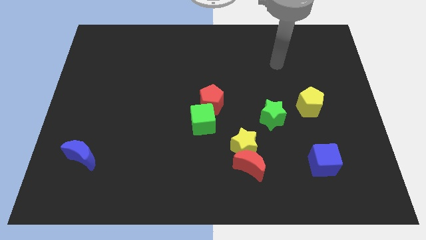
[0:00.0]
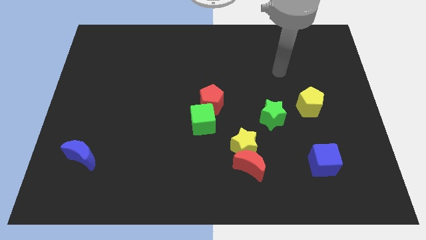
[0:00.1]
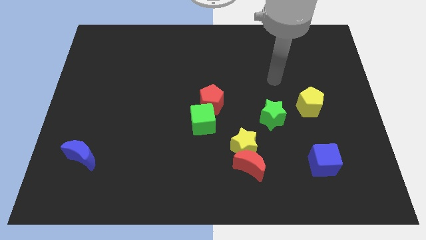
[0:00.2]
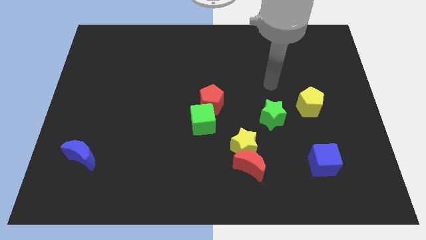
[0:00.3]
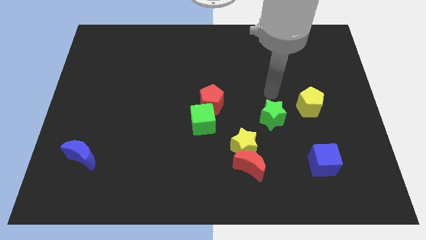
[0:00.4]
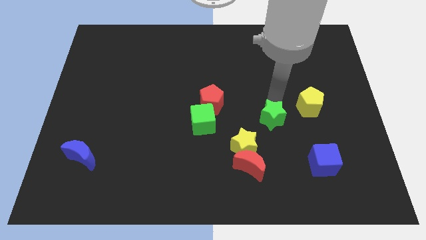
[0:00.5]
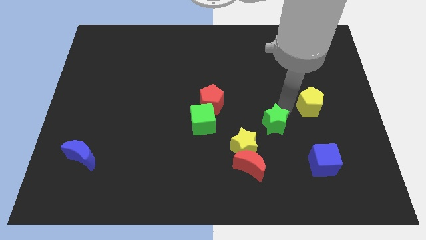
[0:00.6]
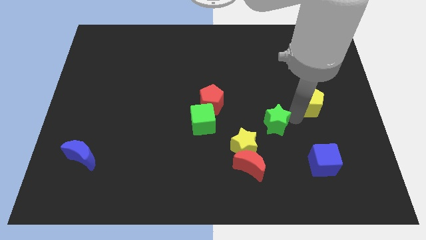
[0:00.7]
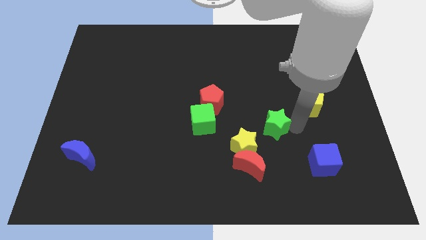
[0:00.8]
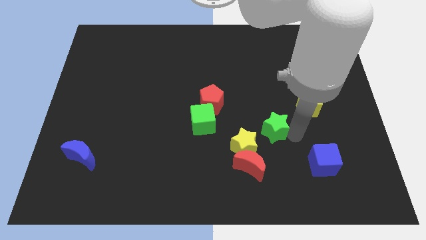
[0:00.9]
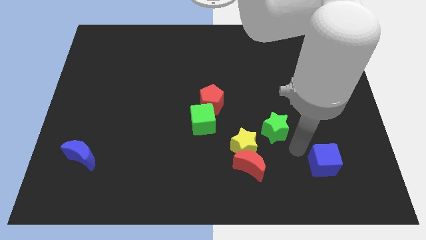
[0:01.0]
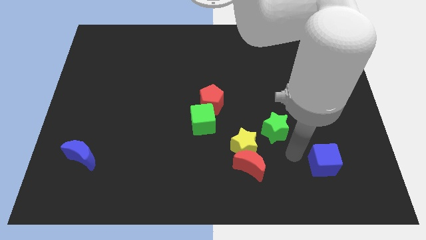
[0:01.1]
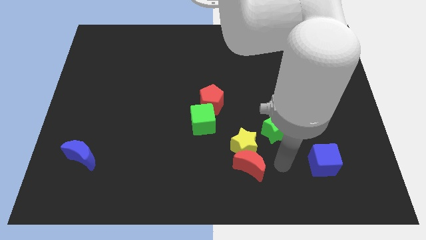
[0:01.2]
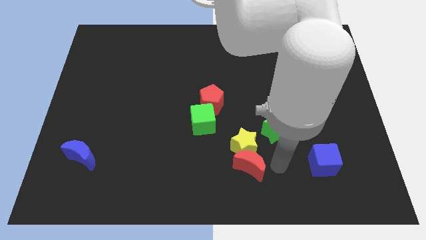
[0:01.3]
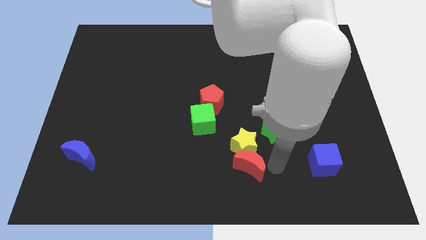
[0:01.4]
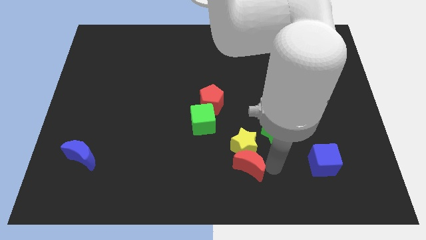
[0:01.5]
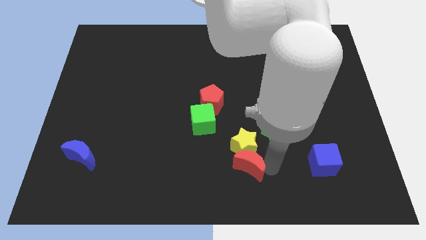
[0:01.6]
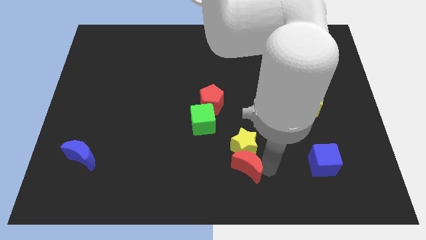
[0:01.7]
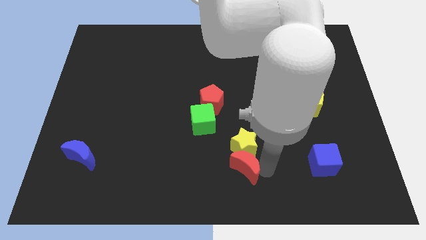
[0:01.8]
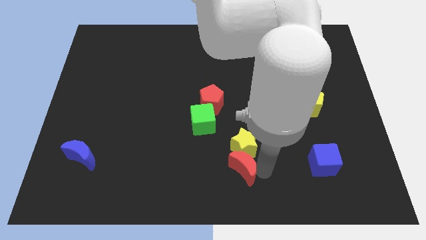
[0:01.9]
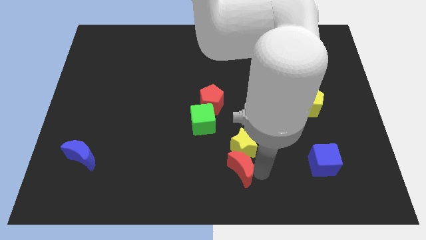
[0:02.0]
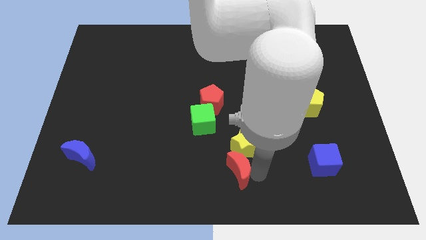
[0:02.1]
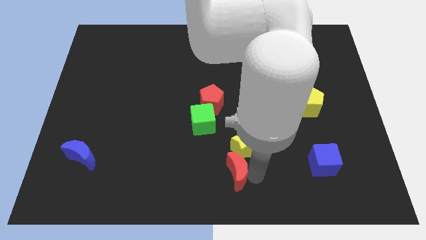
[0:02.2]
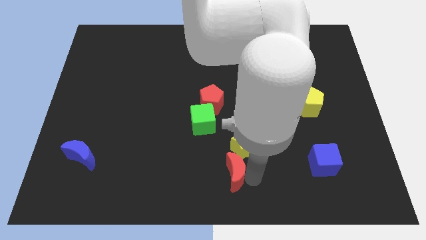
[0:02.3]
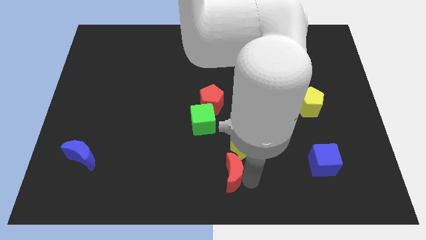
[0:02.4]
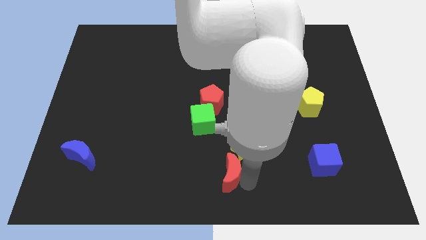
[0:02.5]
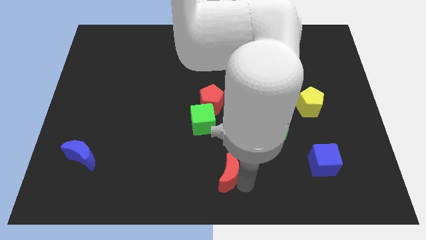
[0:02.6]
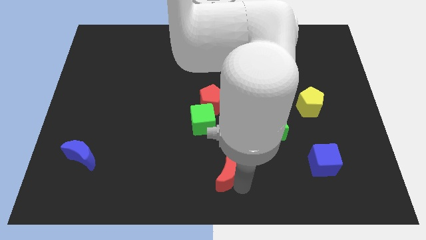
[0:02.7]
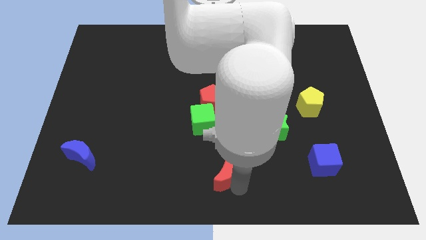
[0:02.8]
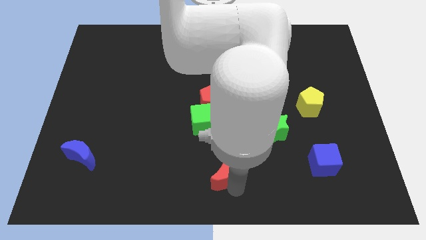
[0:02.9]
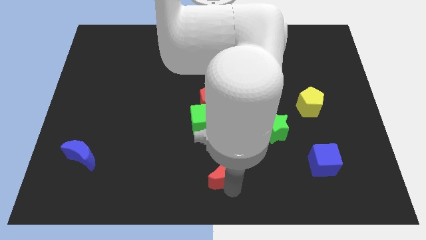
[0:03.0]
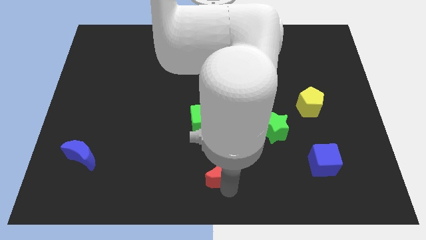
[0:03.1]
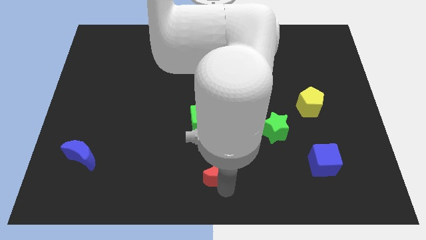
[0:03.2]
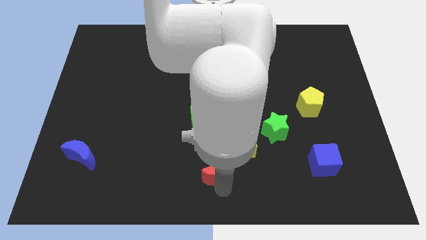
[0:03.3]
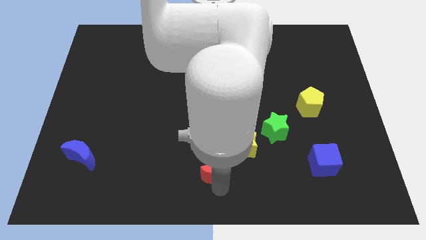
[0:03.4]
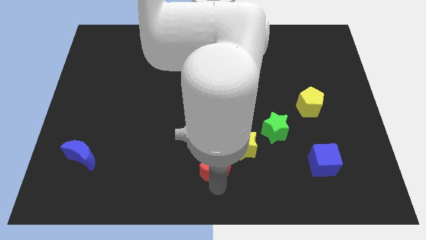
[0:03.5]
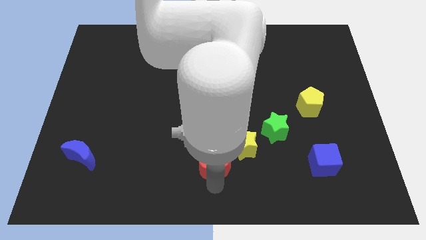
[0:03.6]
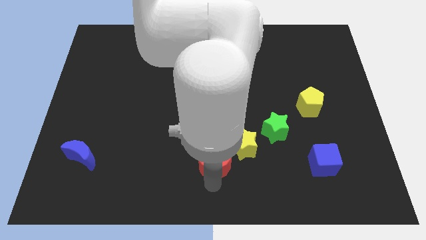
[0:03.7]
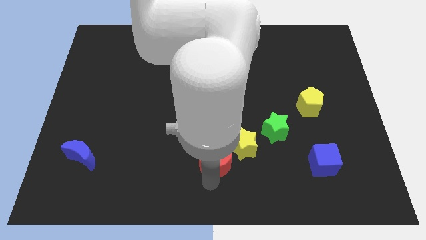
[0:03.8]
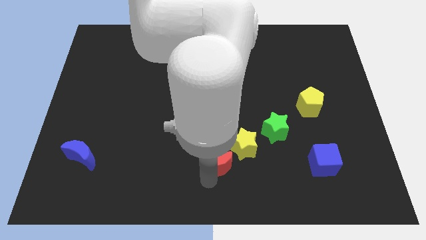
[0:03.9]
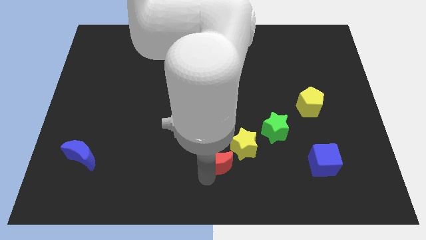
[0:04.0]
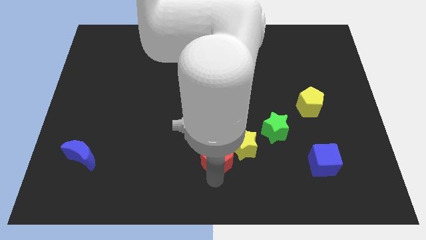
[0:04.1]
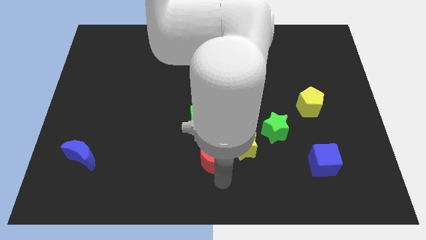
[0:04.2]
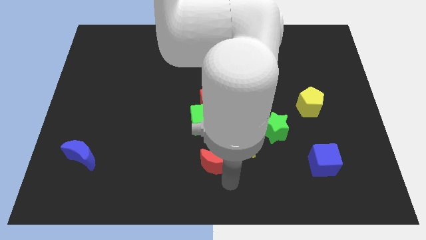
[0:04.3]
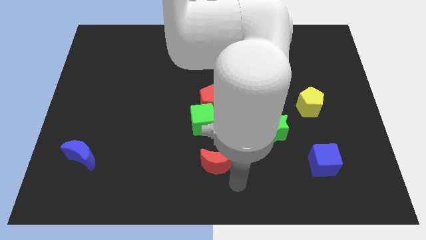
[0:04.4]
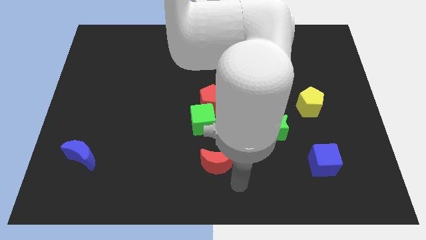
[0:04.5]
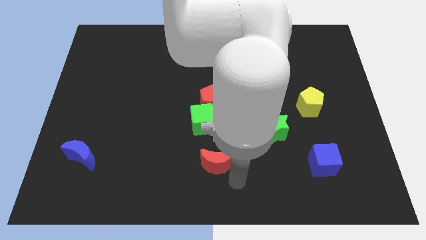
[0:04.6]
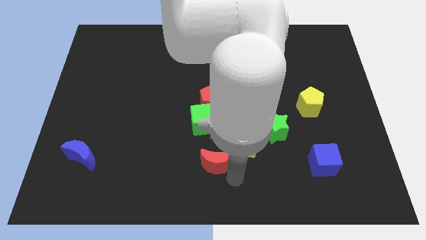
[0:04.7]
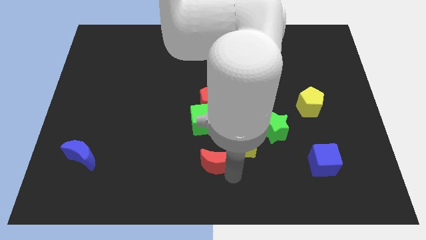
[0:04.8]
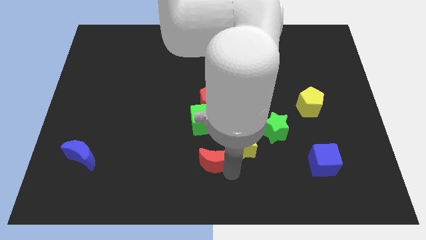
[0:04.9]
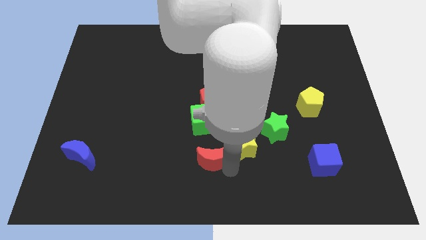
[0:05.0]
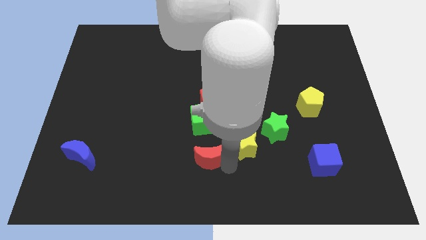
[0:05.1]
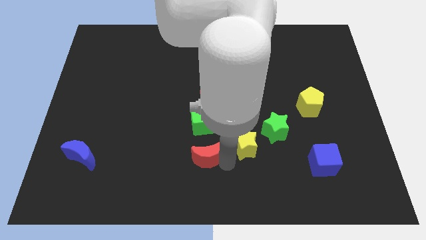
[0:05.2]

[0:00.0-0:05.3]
slightly slide the red moon diagonally up and left

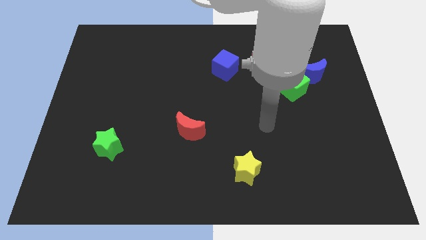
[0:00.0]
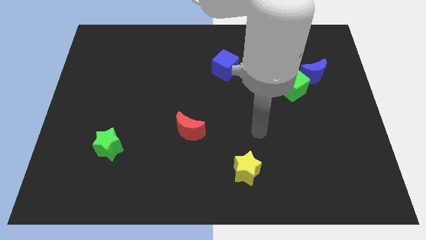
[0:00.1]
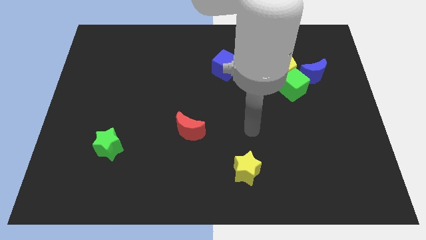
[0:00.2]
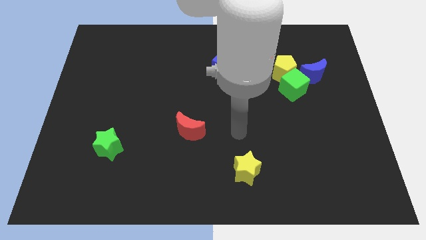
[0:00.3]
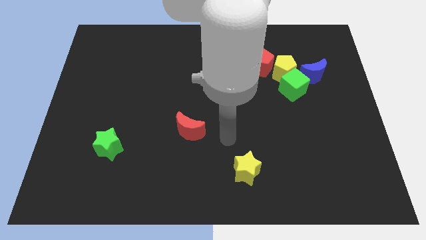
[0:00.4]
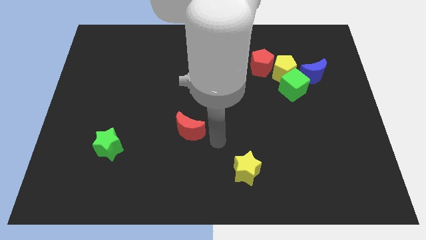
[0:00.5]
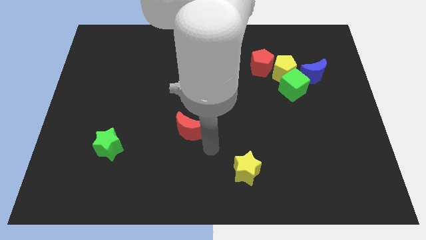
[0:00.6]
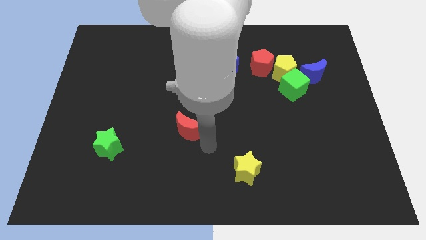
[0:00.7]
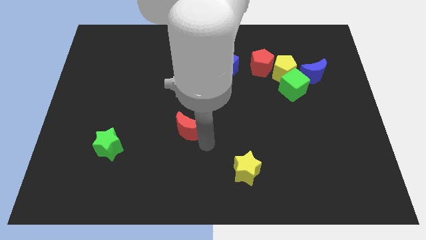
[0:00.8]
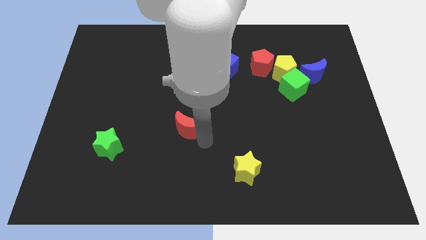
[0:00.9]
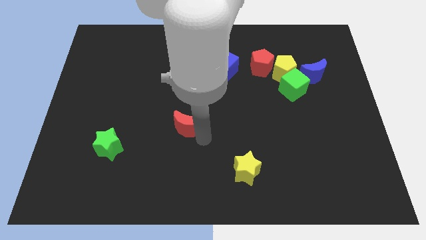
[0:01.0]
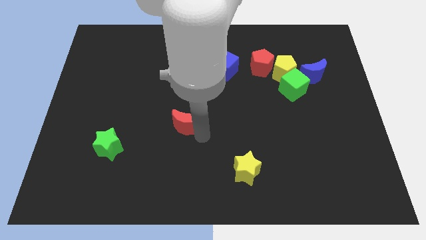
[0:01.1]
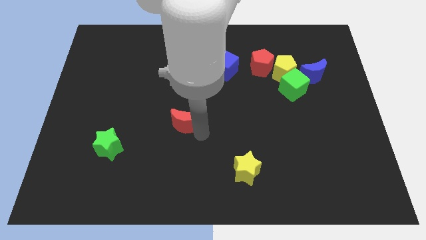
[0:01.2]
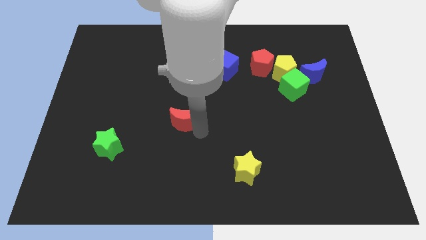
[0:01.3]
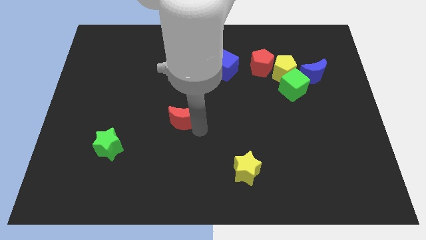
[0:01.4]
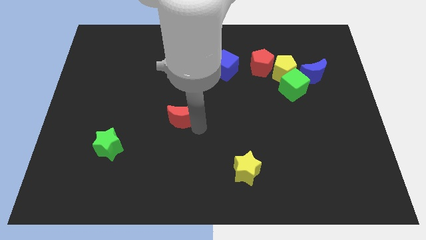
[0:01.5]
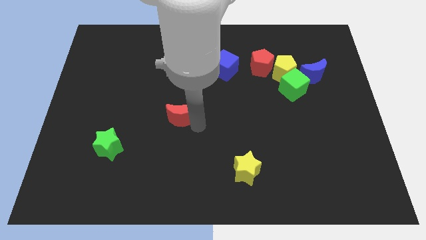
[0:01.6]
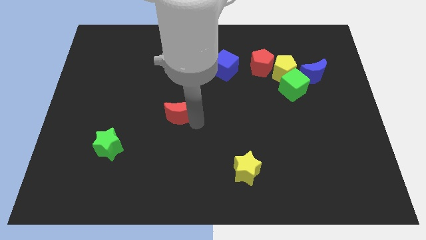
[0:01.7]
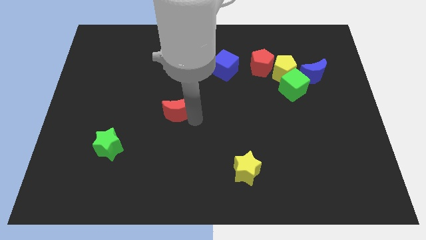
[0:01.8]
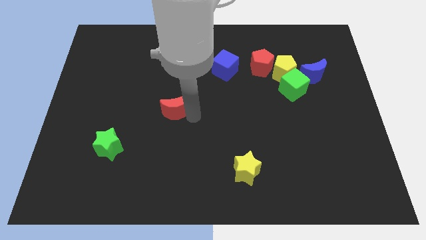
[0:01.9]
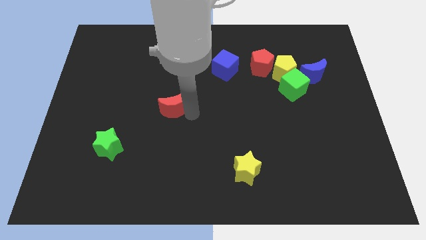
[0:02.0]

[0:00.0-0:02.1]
move the red moon somewhat upwards and left diagonally

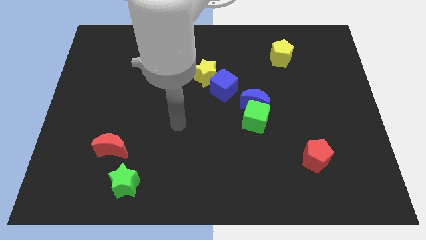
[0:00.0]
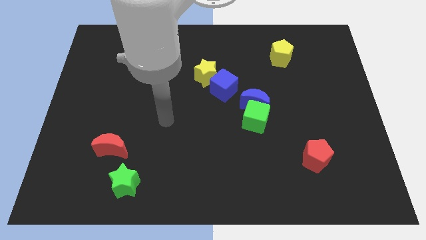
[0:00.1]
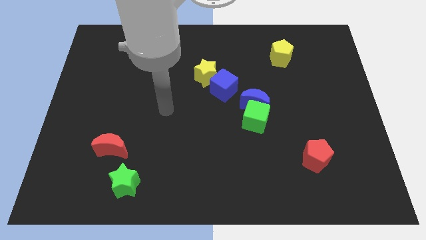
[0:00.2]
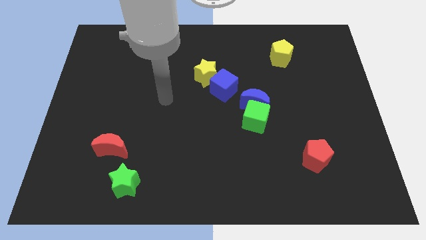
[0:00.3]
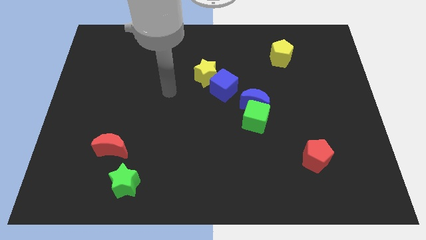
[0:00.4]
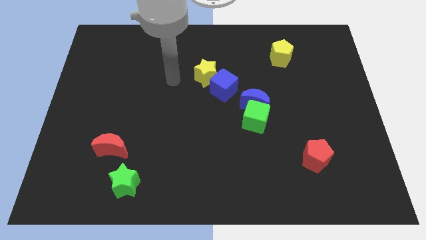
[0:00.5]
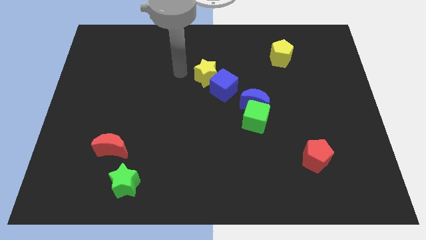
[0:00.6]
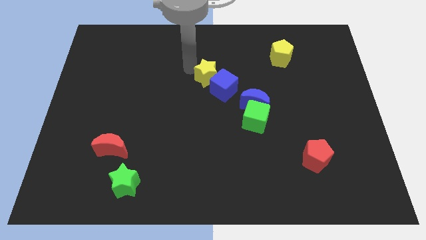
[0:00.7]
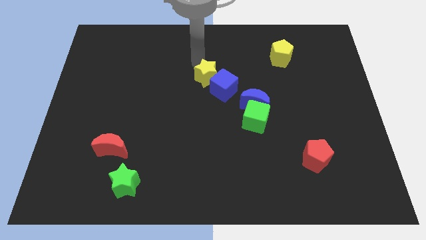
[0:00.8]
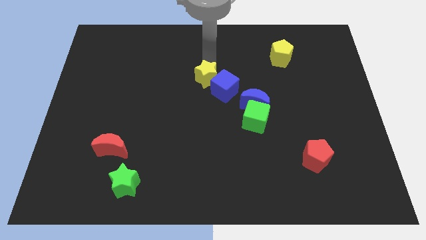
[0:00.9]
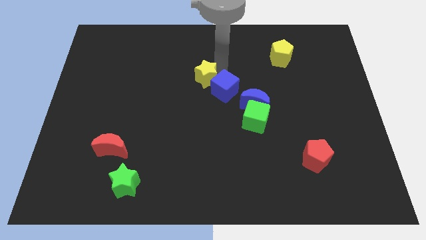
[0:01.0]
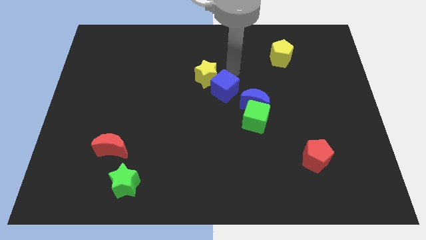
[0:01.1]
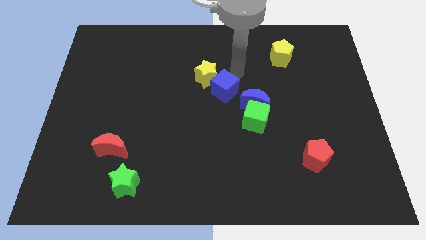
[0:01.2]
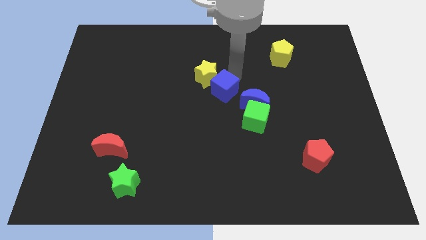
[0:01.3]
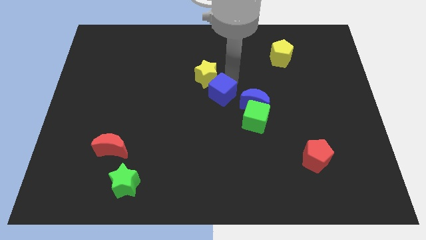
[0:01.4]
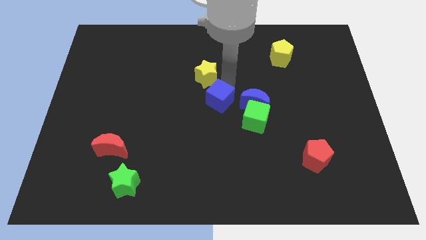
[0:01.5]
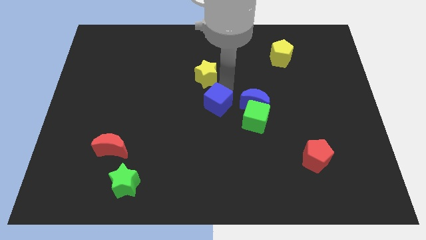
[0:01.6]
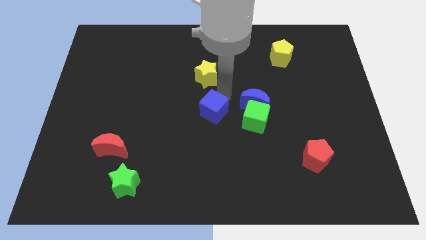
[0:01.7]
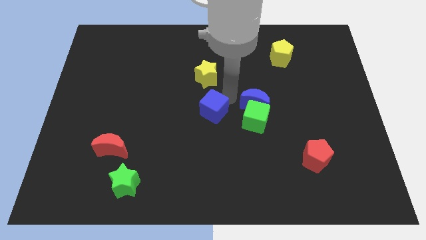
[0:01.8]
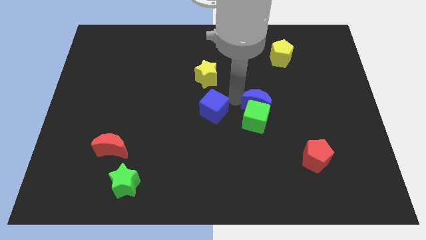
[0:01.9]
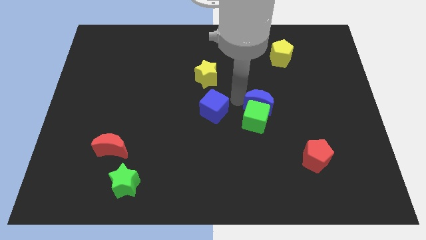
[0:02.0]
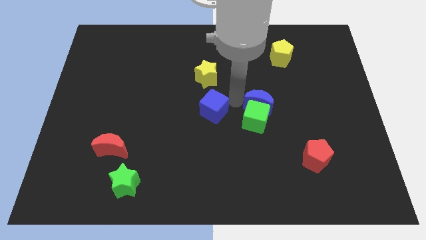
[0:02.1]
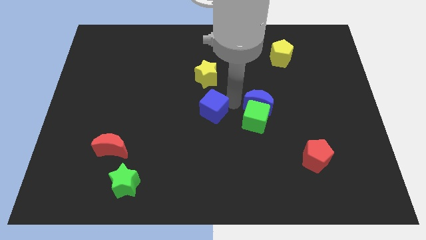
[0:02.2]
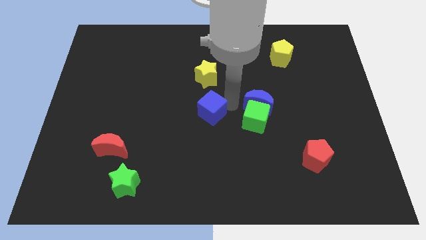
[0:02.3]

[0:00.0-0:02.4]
slide the blue cube diagonally downwards and to the left a bit
